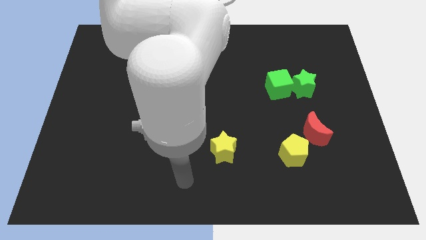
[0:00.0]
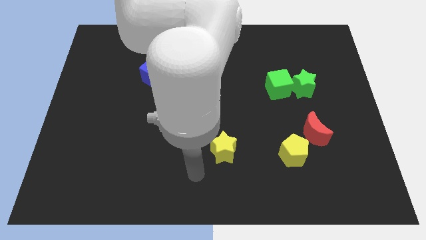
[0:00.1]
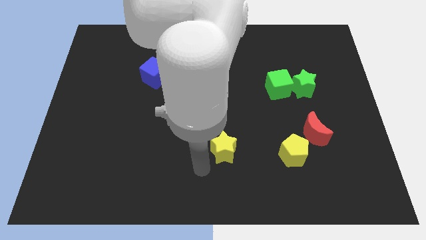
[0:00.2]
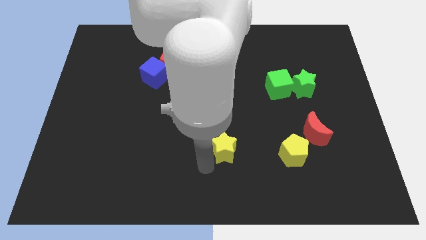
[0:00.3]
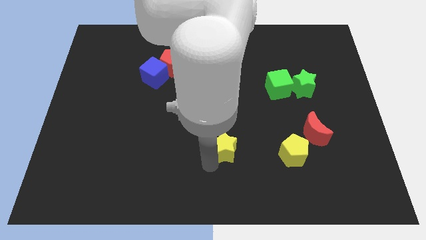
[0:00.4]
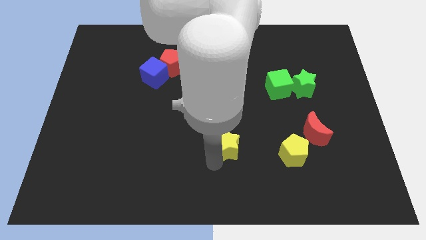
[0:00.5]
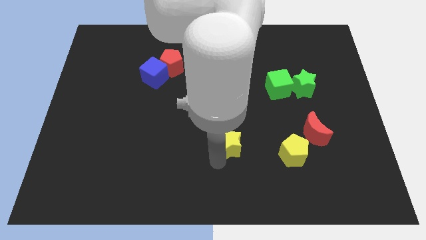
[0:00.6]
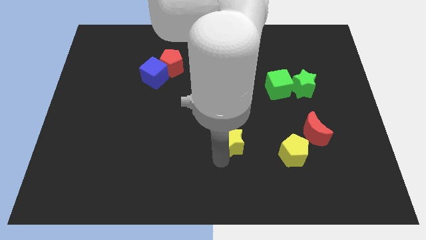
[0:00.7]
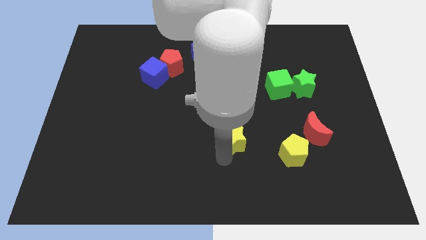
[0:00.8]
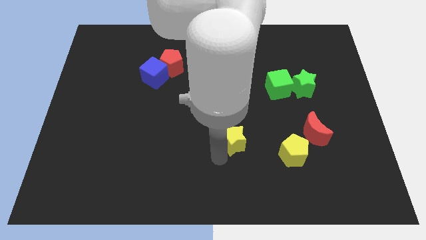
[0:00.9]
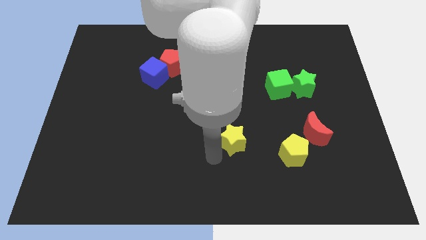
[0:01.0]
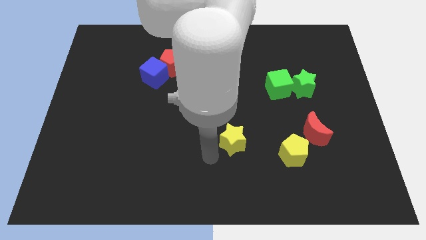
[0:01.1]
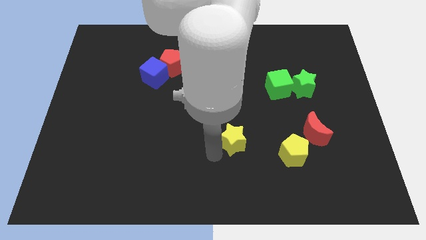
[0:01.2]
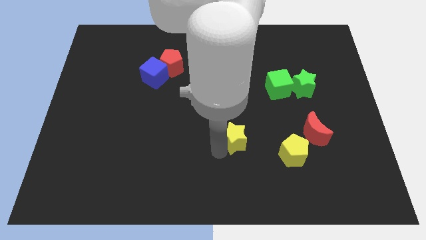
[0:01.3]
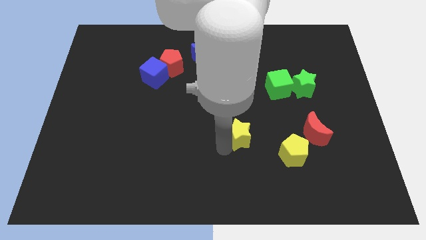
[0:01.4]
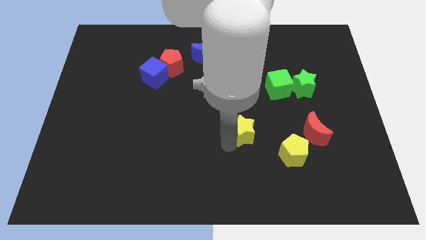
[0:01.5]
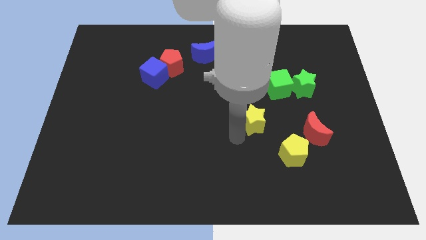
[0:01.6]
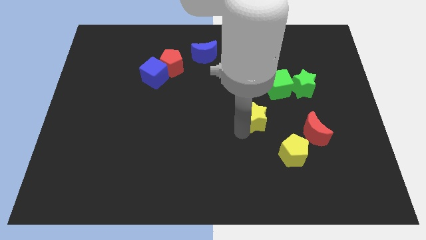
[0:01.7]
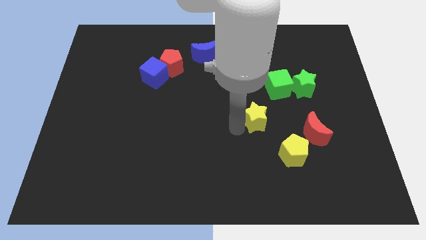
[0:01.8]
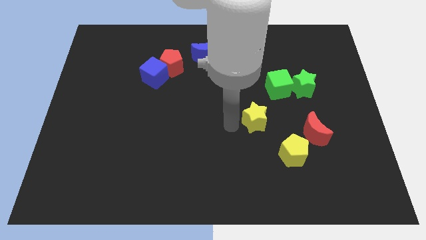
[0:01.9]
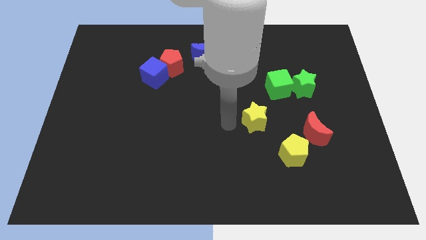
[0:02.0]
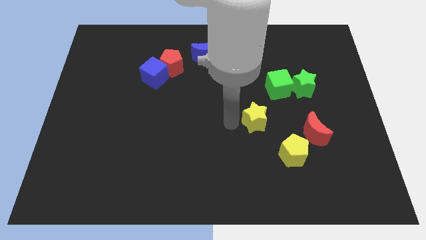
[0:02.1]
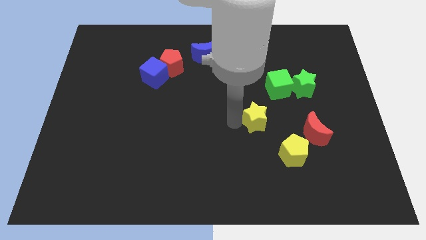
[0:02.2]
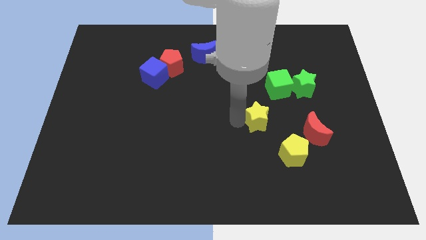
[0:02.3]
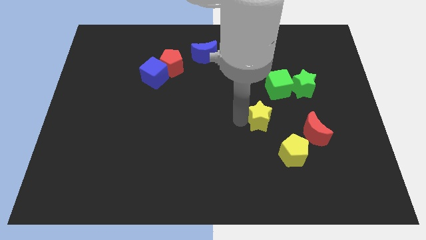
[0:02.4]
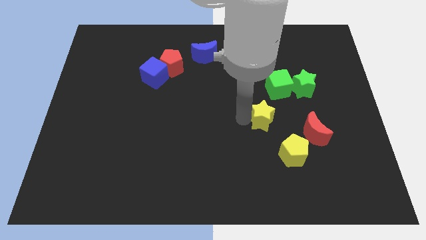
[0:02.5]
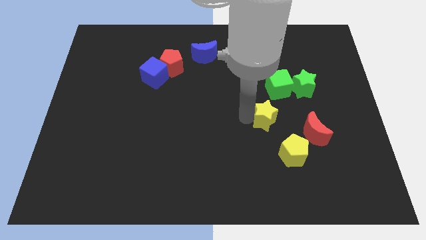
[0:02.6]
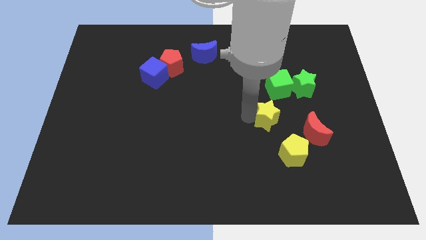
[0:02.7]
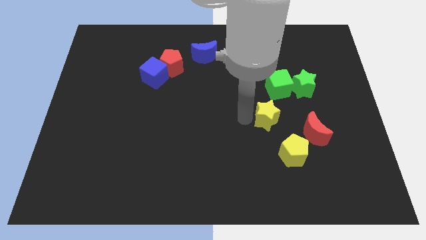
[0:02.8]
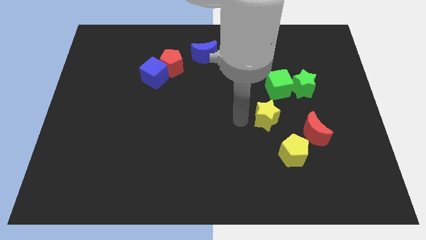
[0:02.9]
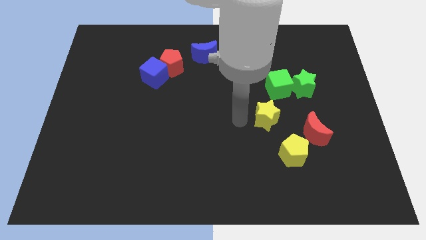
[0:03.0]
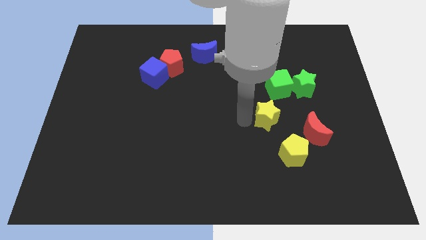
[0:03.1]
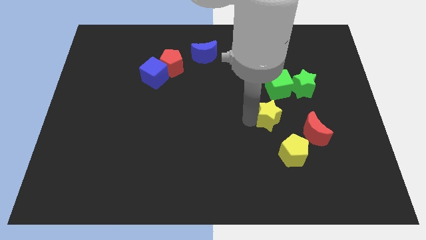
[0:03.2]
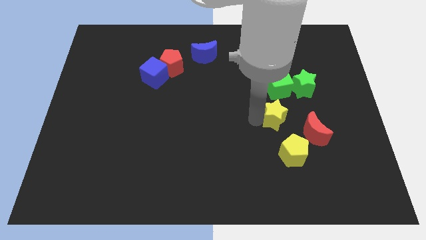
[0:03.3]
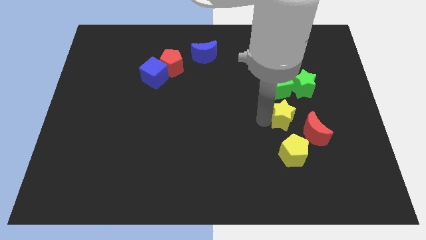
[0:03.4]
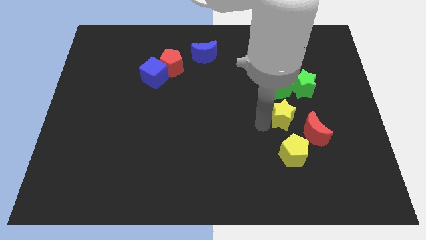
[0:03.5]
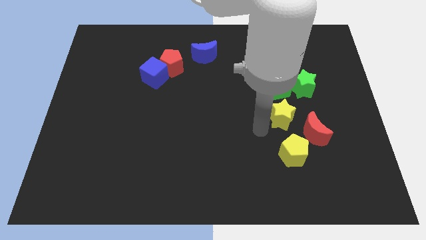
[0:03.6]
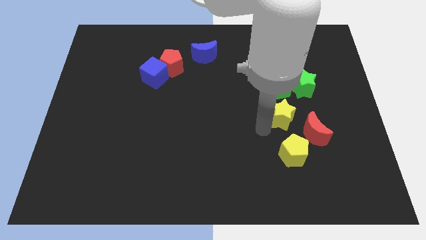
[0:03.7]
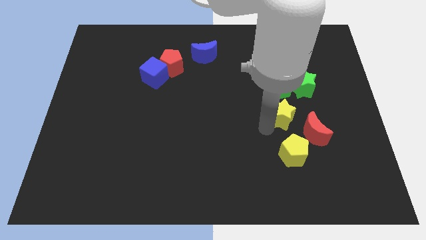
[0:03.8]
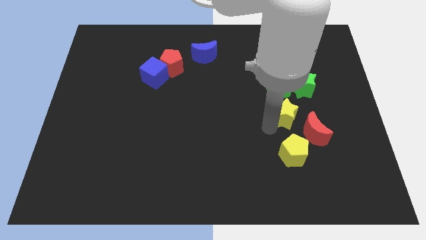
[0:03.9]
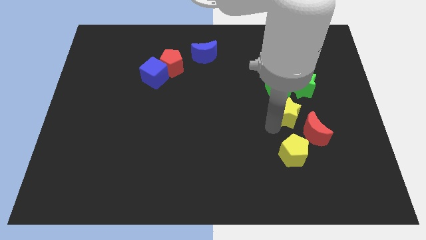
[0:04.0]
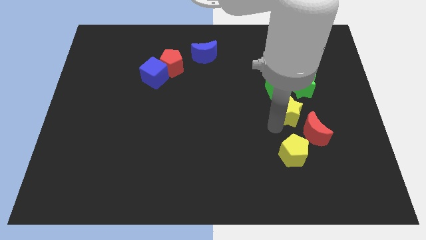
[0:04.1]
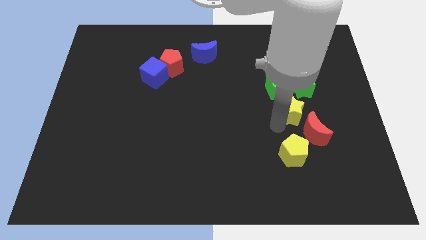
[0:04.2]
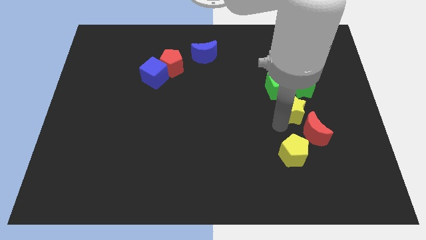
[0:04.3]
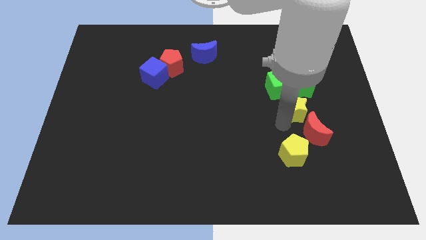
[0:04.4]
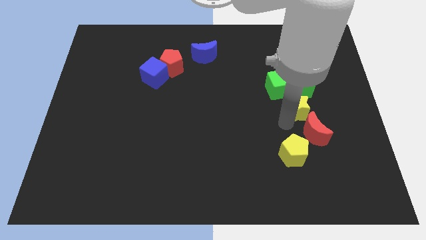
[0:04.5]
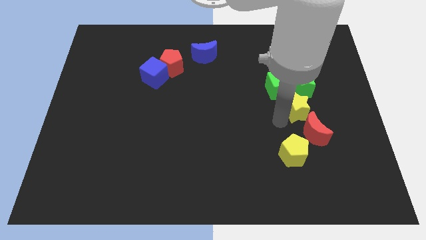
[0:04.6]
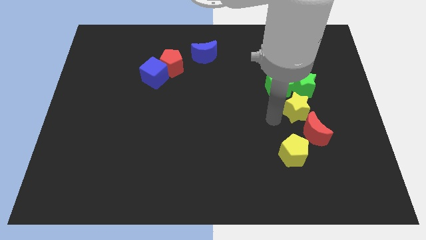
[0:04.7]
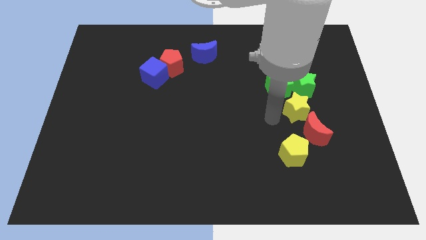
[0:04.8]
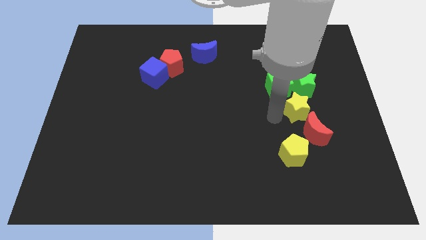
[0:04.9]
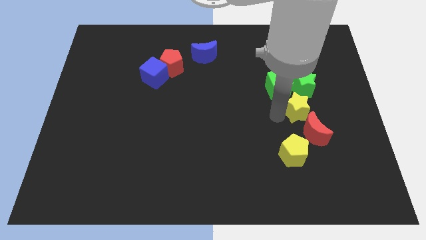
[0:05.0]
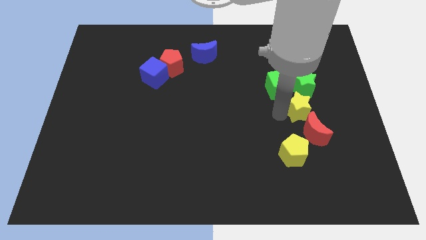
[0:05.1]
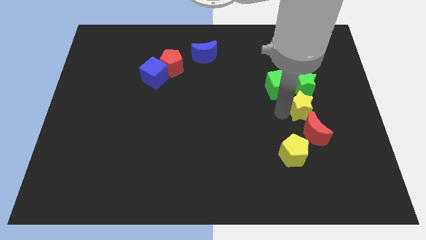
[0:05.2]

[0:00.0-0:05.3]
move the yellow star up and right

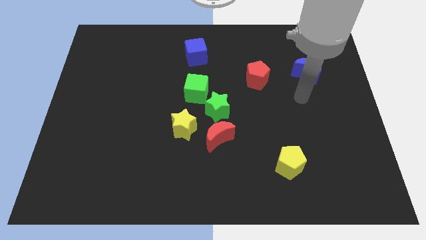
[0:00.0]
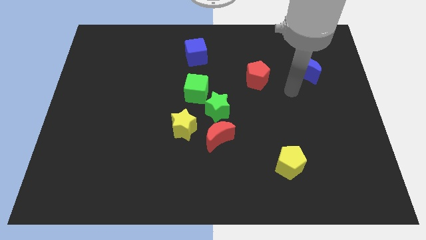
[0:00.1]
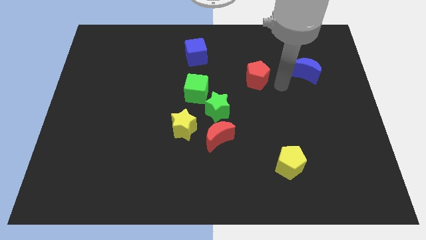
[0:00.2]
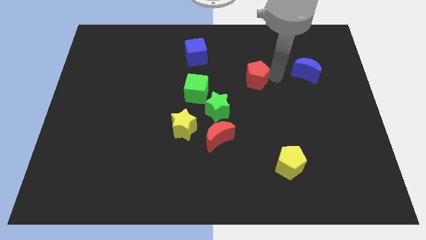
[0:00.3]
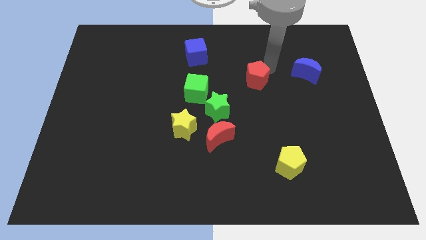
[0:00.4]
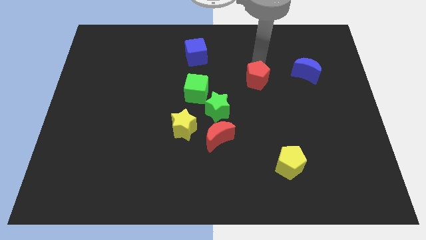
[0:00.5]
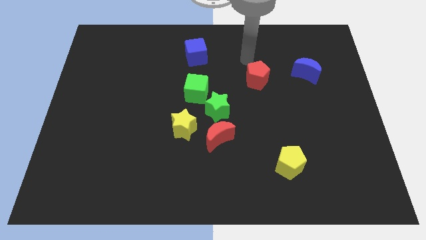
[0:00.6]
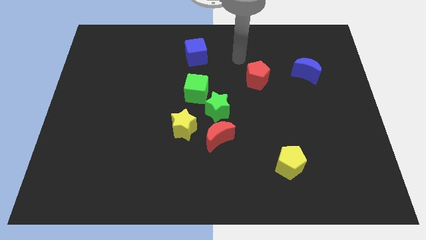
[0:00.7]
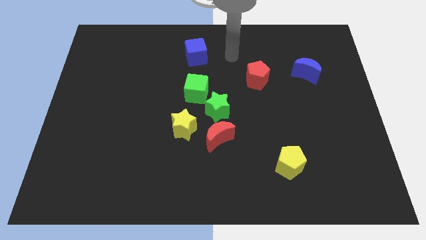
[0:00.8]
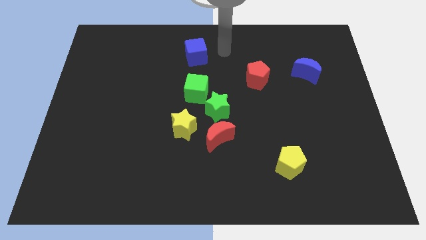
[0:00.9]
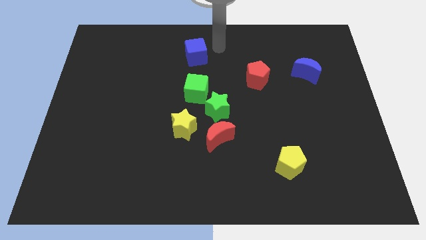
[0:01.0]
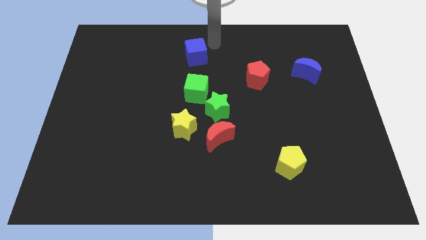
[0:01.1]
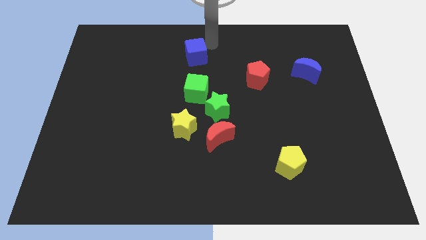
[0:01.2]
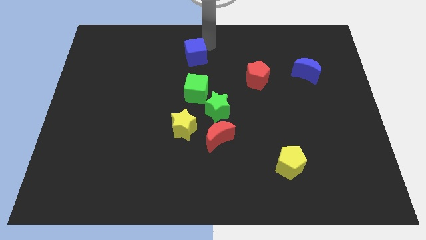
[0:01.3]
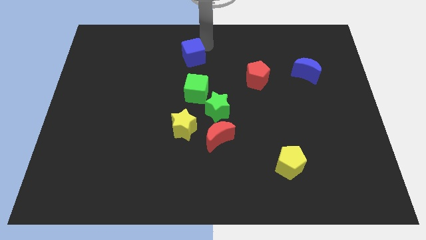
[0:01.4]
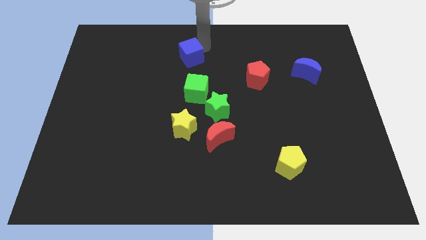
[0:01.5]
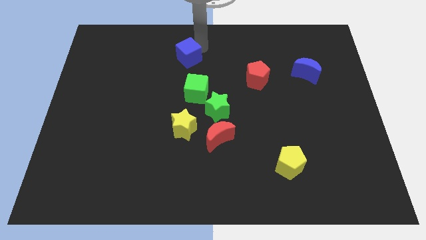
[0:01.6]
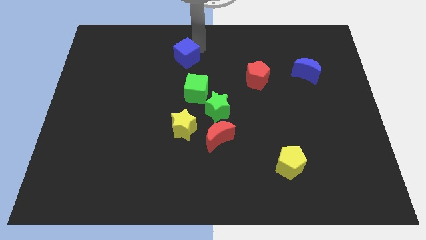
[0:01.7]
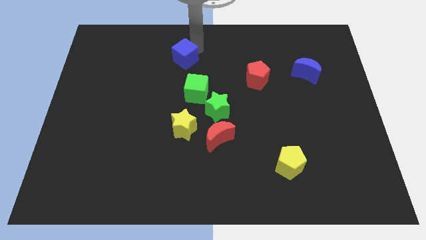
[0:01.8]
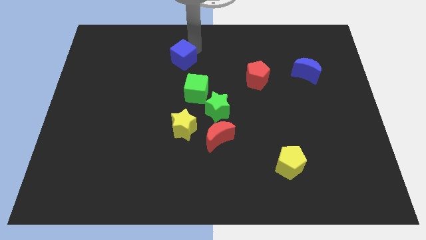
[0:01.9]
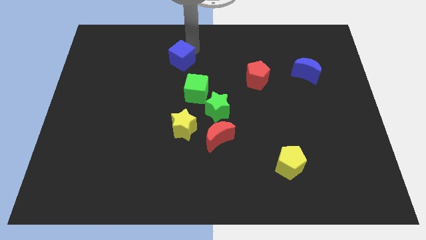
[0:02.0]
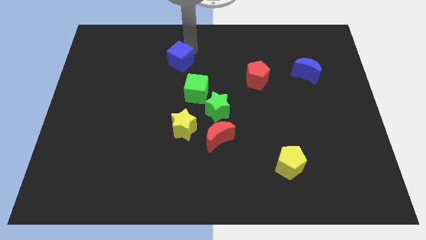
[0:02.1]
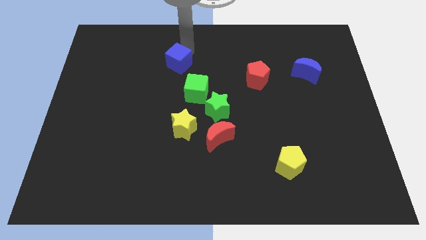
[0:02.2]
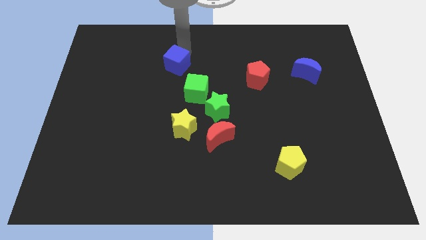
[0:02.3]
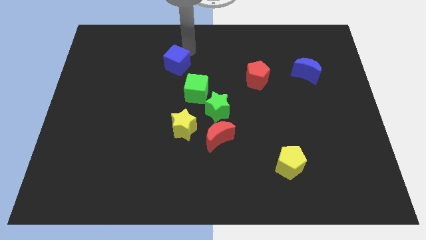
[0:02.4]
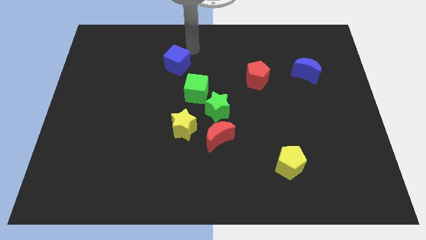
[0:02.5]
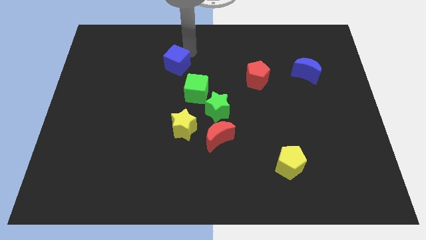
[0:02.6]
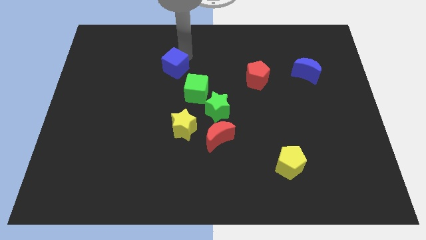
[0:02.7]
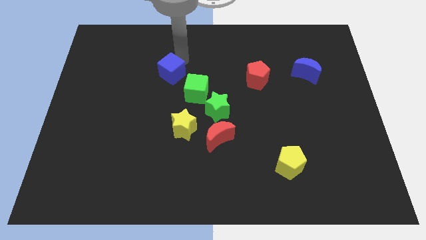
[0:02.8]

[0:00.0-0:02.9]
slide the blue cube downwards and then left a bit

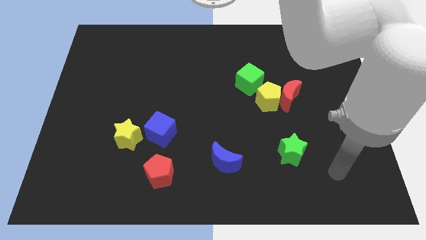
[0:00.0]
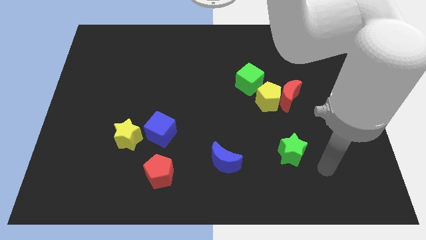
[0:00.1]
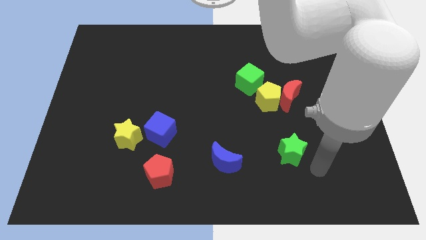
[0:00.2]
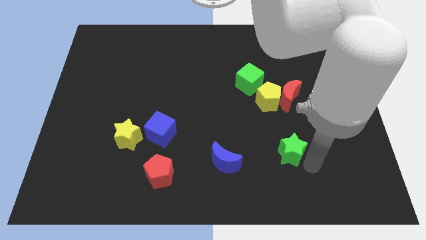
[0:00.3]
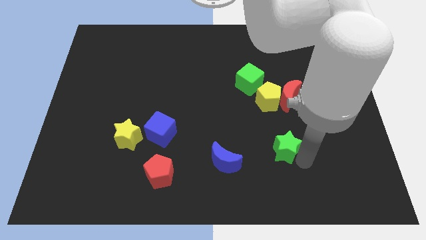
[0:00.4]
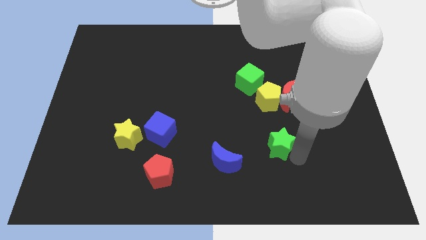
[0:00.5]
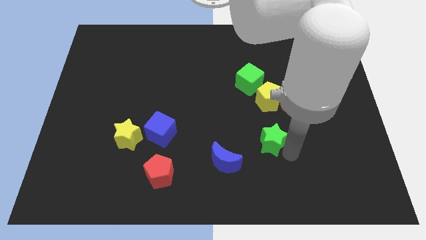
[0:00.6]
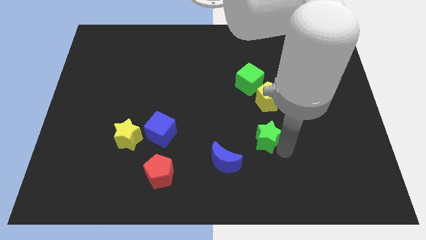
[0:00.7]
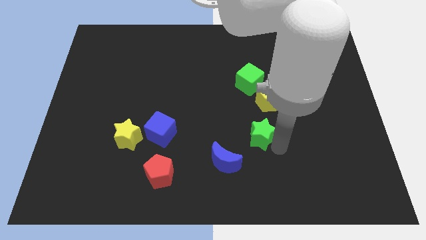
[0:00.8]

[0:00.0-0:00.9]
slightly move the green star up and then to the left
